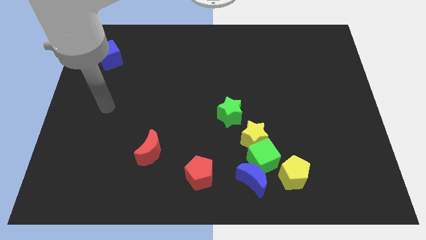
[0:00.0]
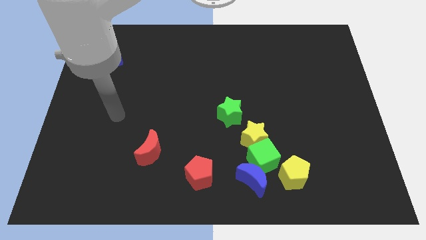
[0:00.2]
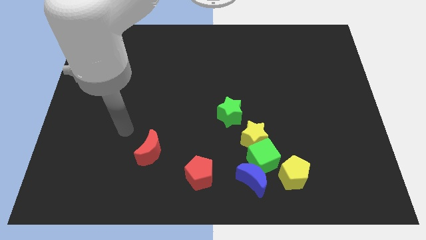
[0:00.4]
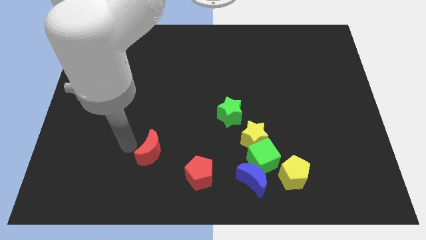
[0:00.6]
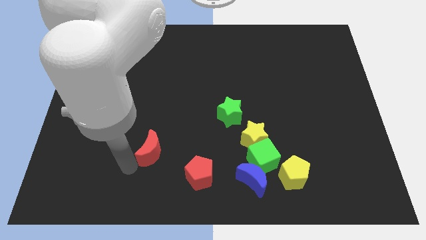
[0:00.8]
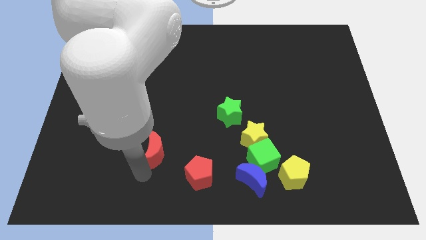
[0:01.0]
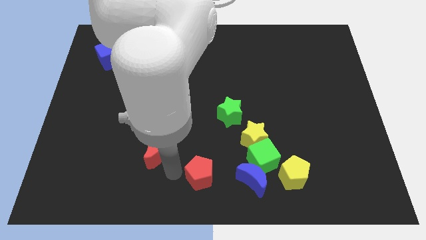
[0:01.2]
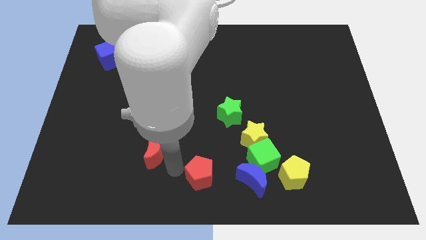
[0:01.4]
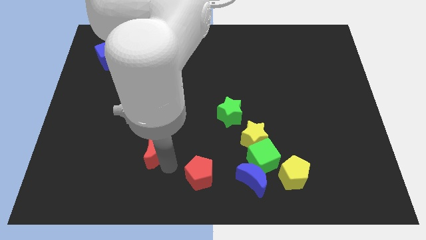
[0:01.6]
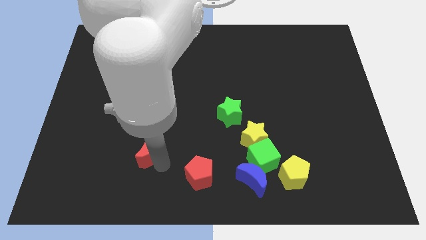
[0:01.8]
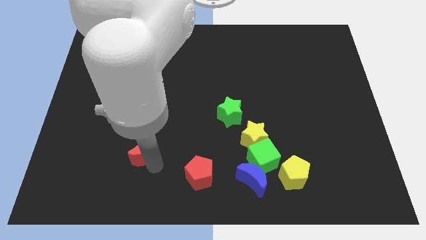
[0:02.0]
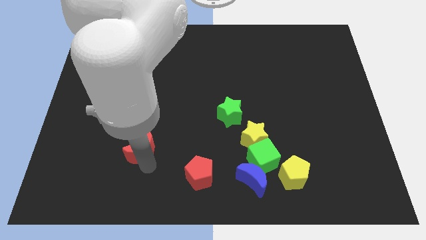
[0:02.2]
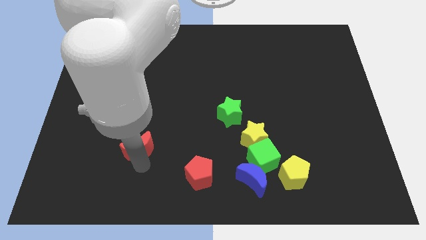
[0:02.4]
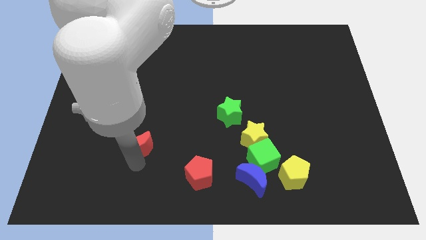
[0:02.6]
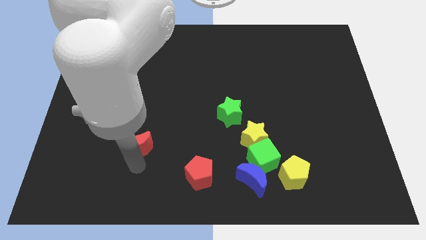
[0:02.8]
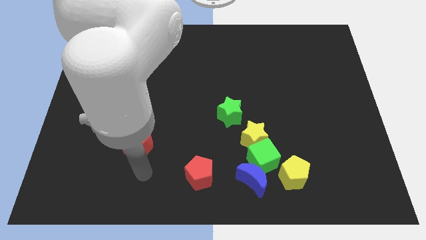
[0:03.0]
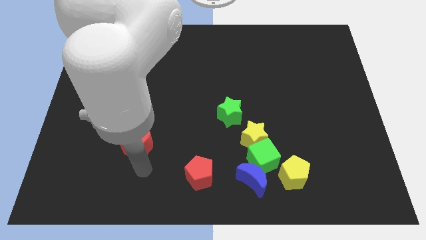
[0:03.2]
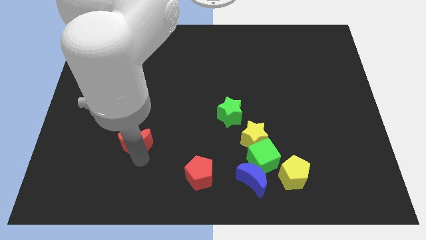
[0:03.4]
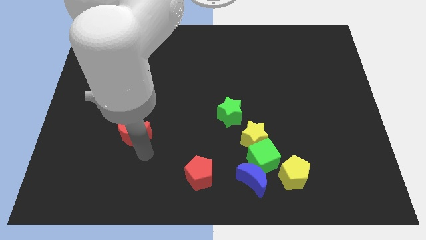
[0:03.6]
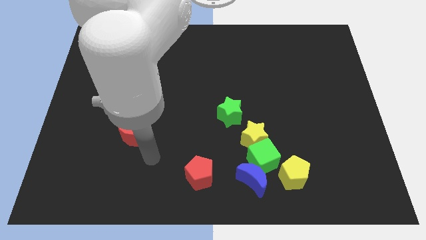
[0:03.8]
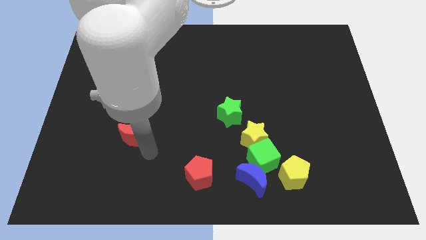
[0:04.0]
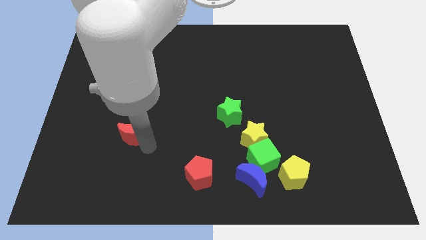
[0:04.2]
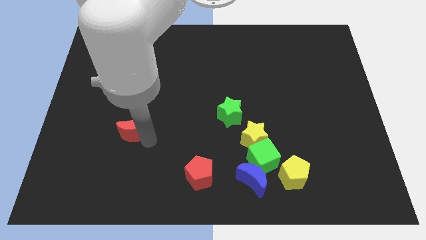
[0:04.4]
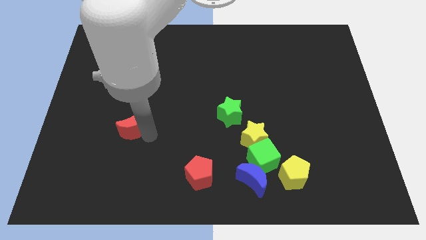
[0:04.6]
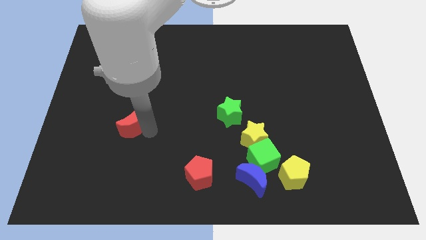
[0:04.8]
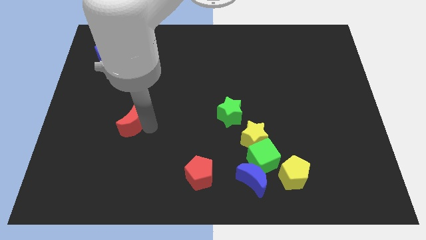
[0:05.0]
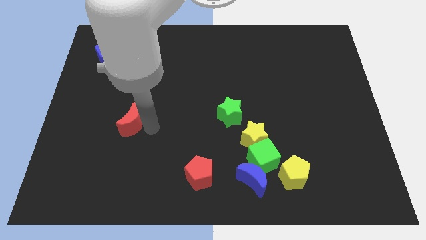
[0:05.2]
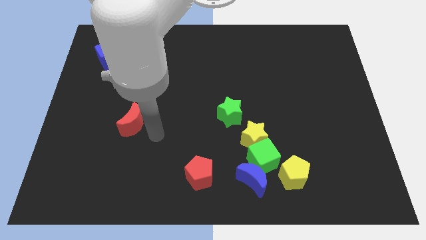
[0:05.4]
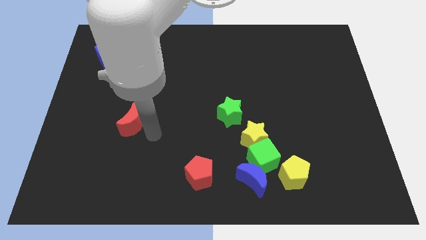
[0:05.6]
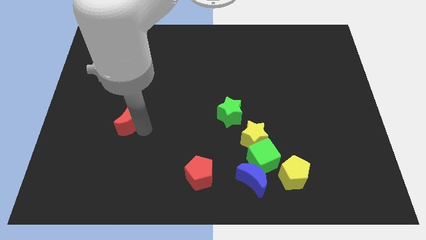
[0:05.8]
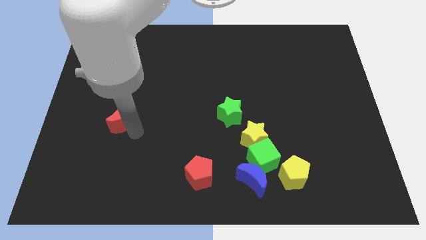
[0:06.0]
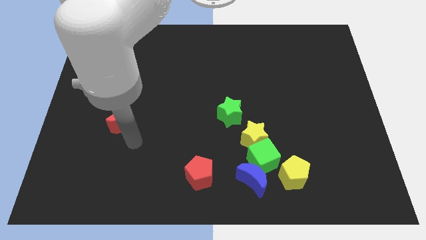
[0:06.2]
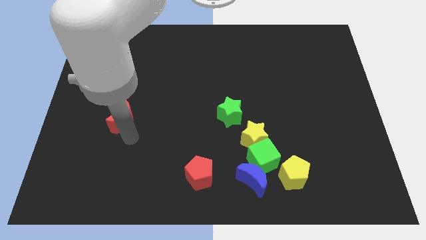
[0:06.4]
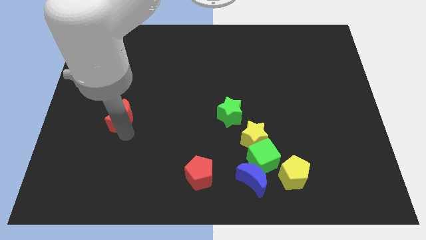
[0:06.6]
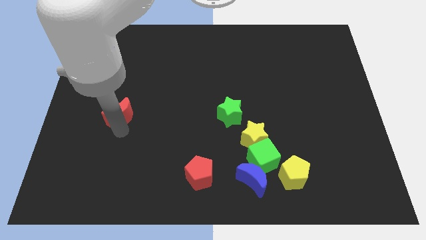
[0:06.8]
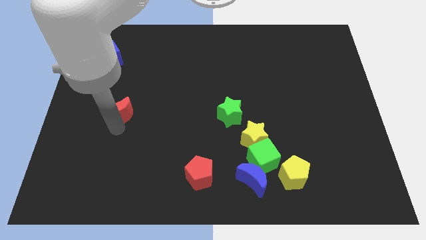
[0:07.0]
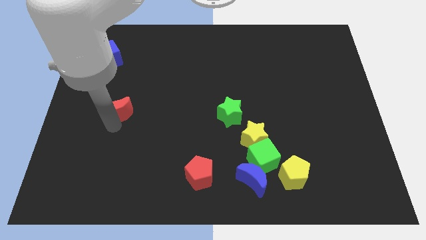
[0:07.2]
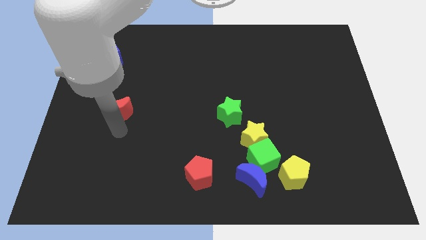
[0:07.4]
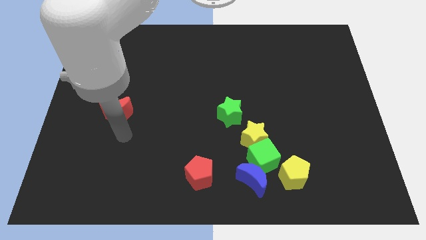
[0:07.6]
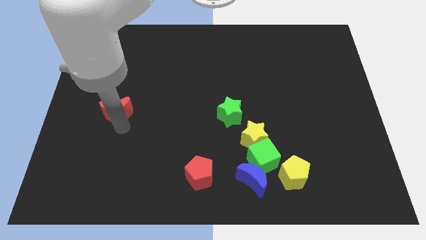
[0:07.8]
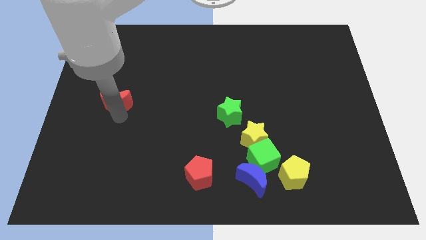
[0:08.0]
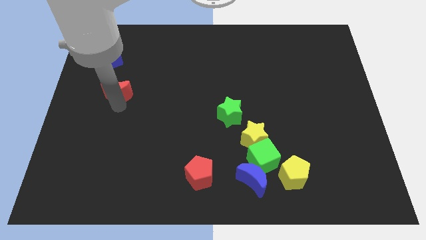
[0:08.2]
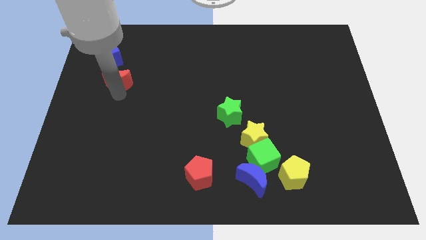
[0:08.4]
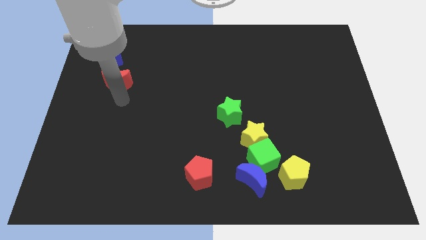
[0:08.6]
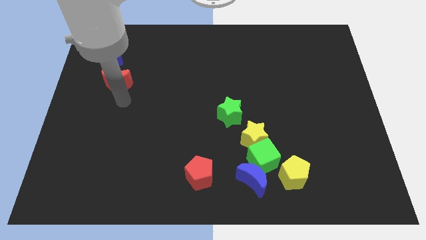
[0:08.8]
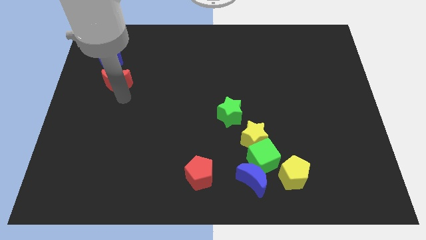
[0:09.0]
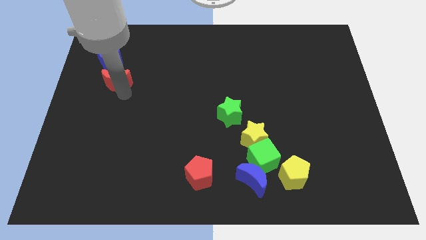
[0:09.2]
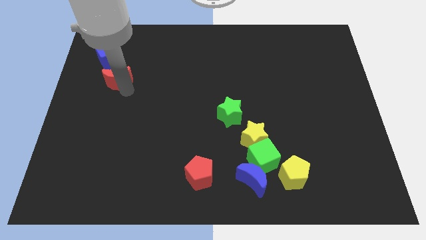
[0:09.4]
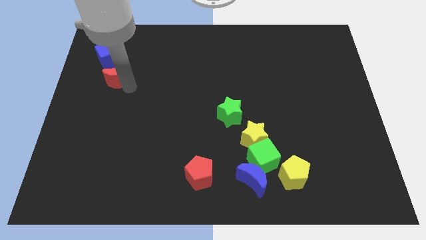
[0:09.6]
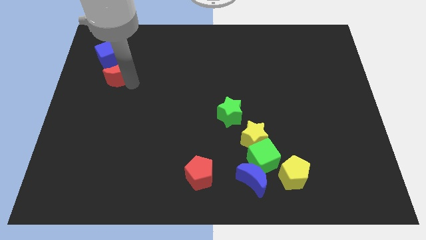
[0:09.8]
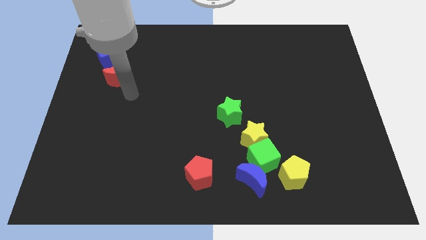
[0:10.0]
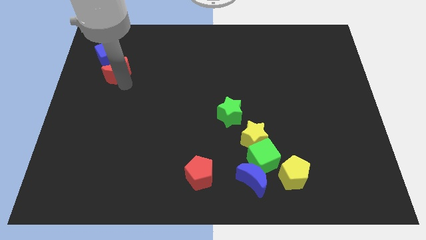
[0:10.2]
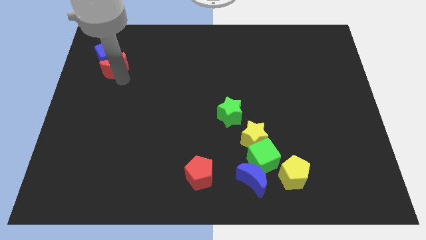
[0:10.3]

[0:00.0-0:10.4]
slide the red moon towards the blue cube

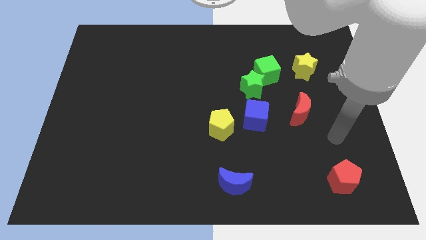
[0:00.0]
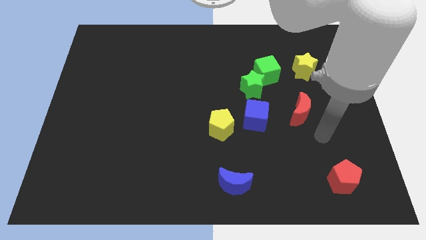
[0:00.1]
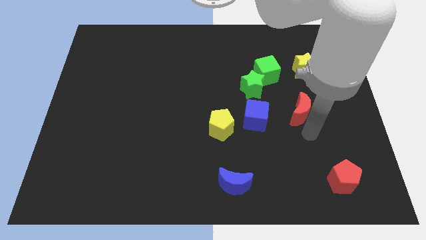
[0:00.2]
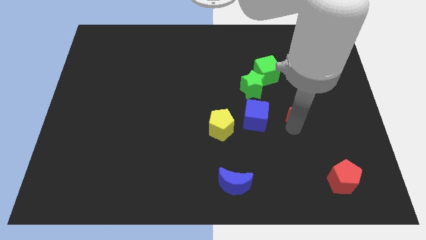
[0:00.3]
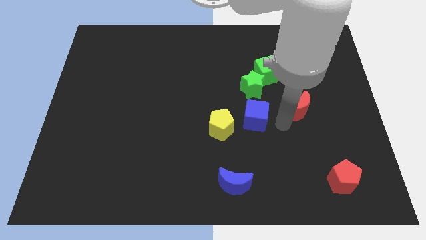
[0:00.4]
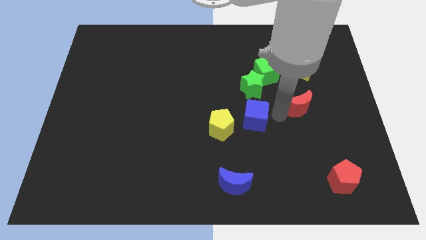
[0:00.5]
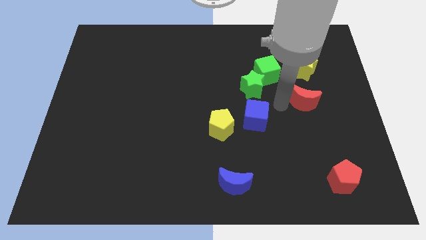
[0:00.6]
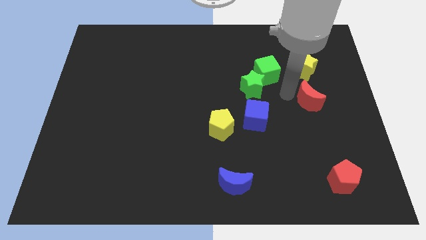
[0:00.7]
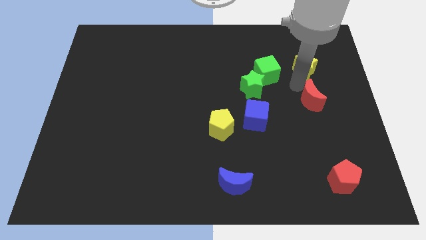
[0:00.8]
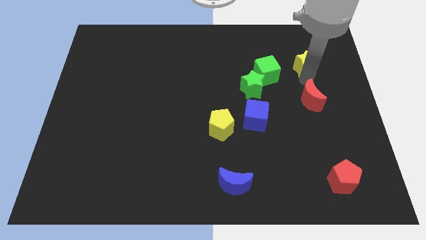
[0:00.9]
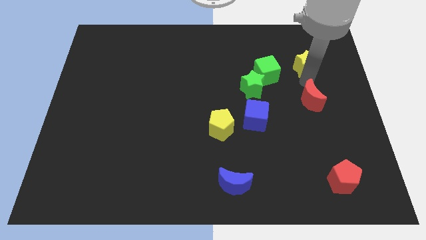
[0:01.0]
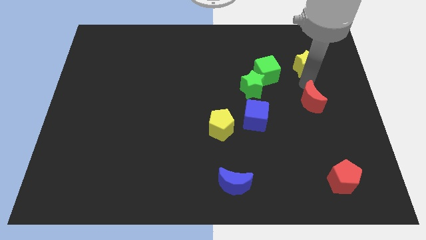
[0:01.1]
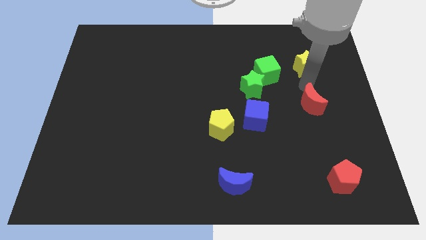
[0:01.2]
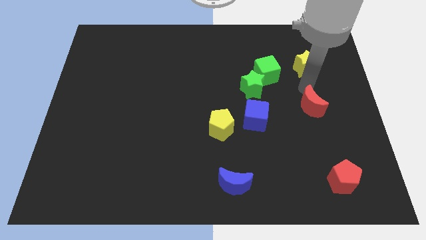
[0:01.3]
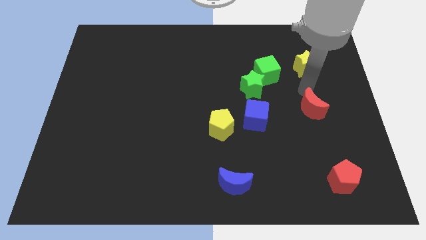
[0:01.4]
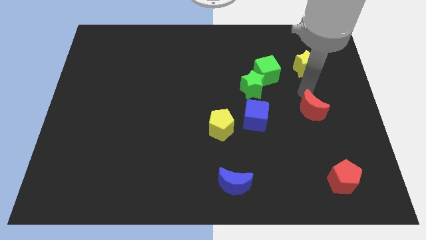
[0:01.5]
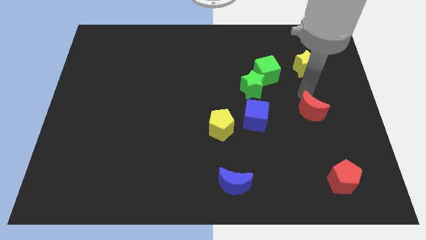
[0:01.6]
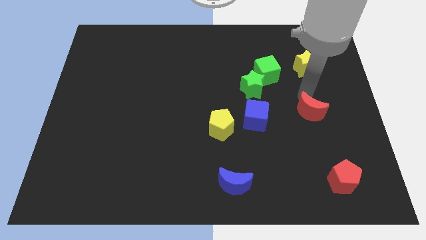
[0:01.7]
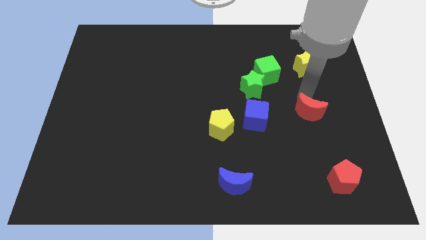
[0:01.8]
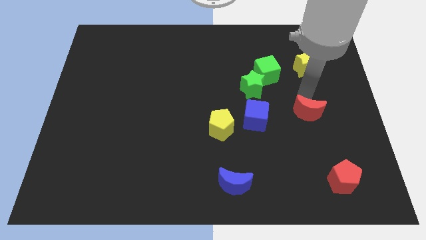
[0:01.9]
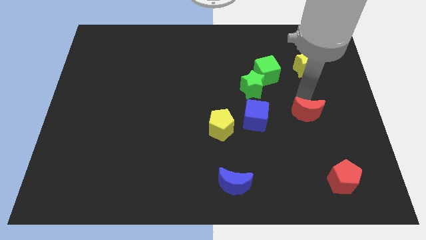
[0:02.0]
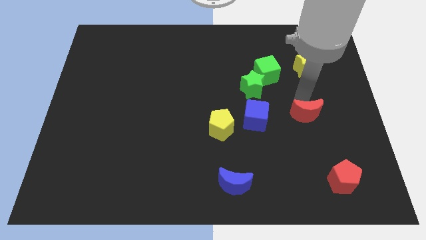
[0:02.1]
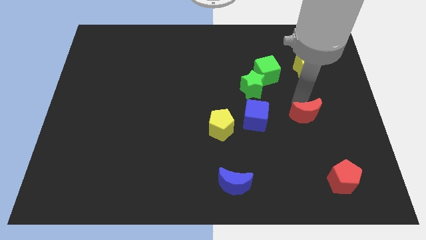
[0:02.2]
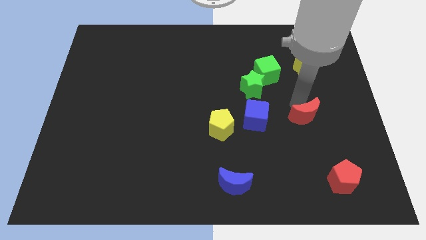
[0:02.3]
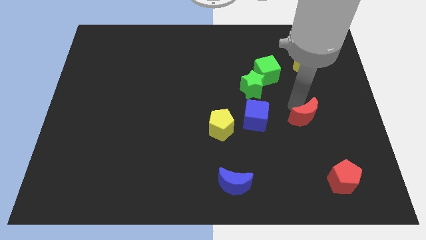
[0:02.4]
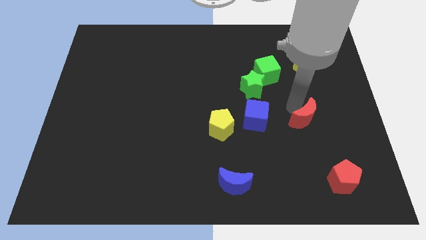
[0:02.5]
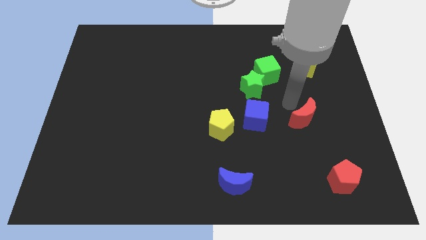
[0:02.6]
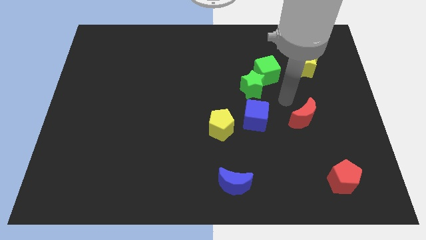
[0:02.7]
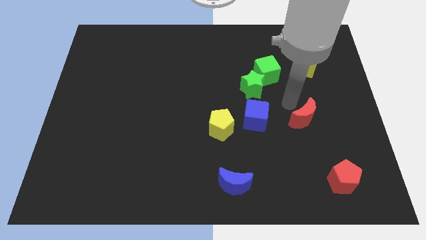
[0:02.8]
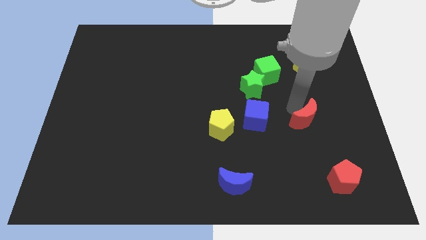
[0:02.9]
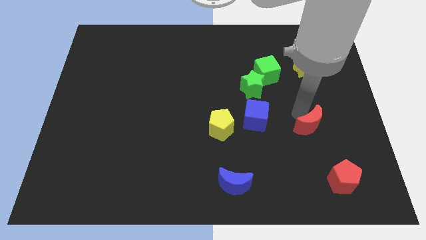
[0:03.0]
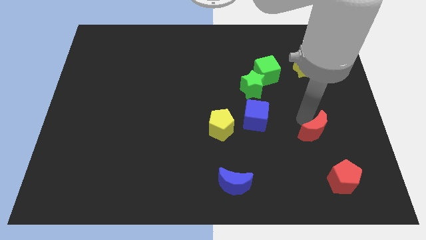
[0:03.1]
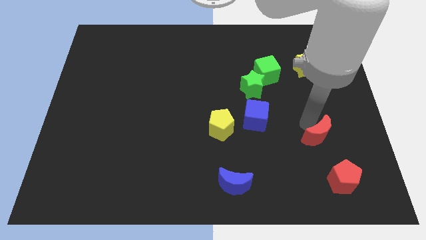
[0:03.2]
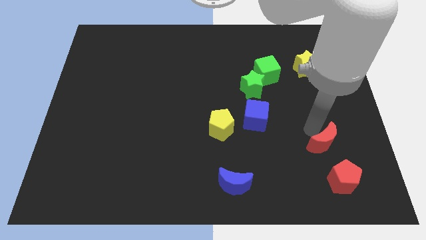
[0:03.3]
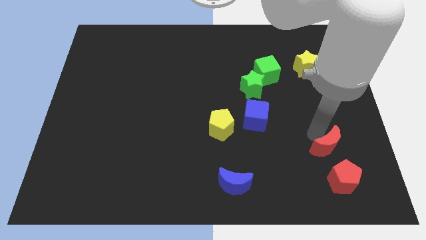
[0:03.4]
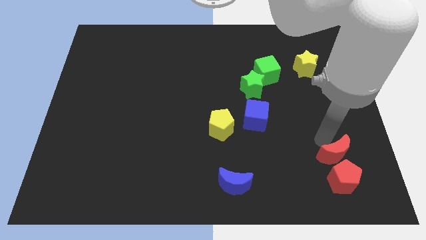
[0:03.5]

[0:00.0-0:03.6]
move the red moon to the red pentagon
